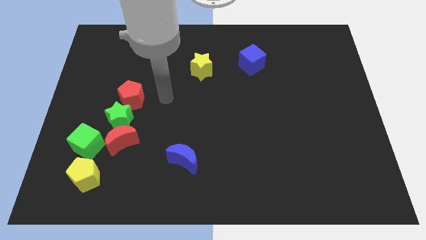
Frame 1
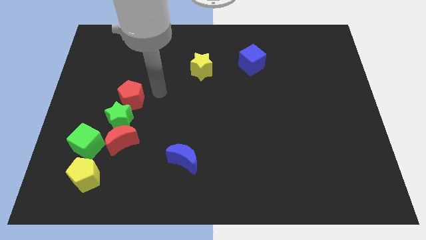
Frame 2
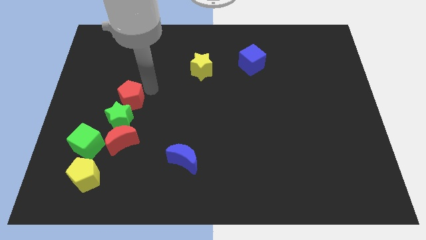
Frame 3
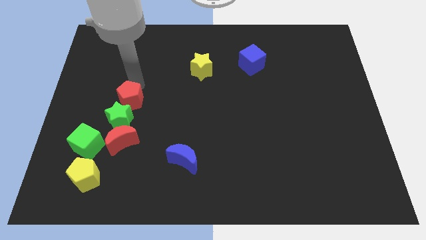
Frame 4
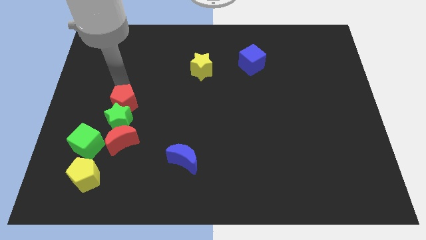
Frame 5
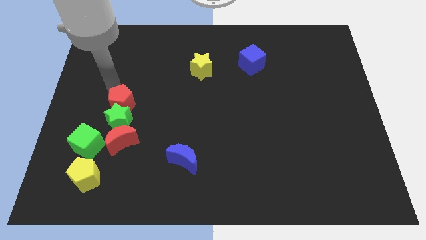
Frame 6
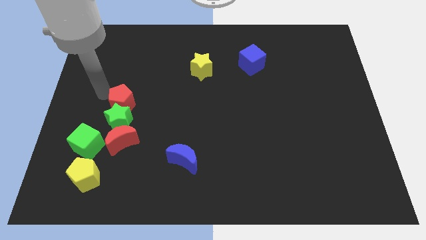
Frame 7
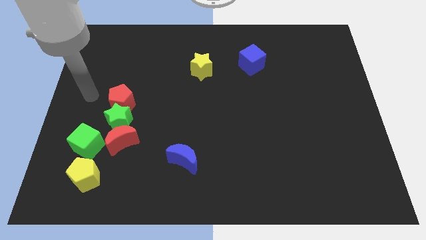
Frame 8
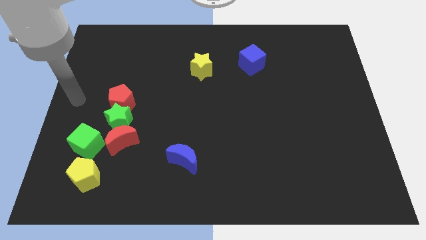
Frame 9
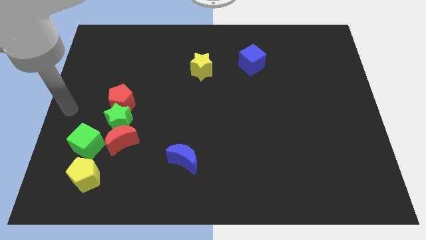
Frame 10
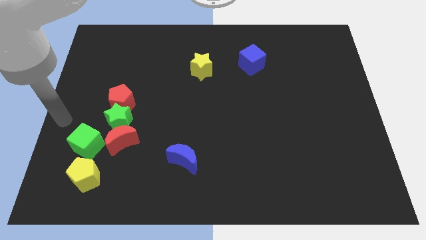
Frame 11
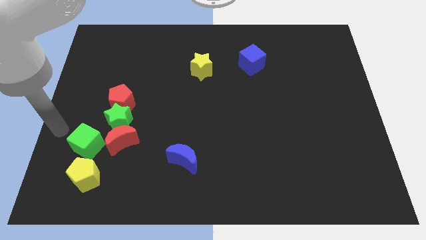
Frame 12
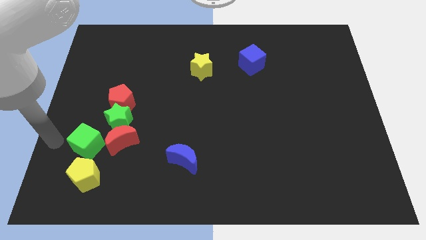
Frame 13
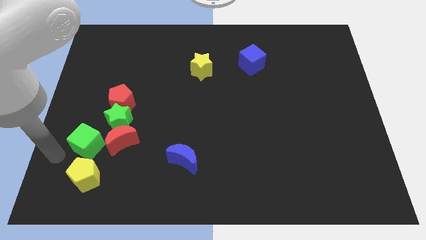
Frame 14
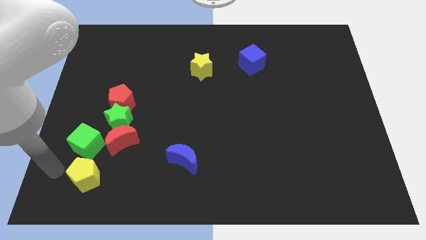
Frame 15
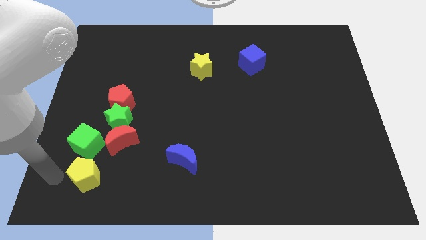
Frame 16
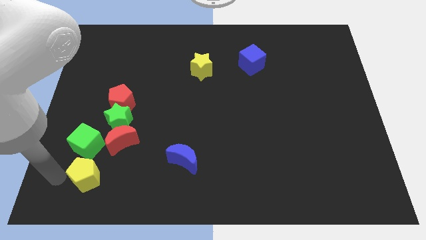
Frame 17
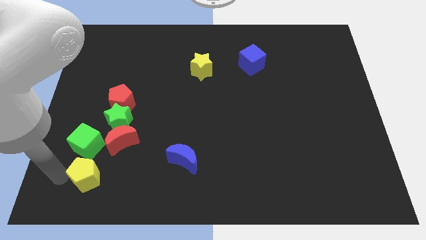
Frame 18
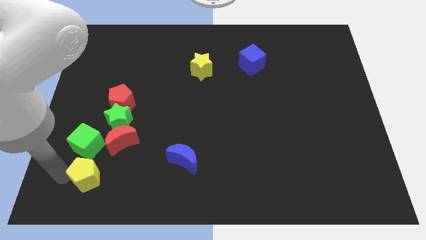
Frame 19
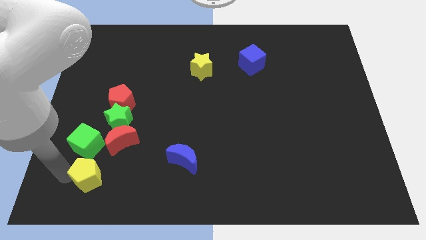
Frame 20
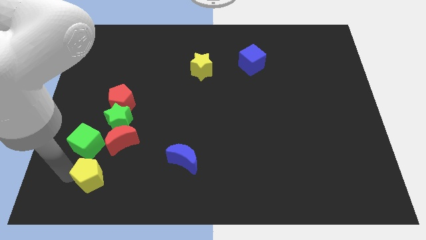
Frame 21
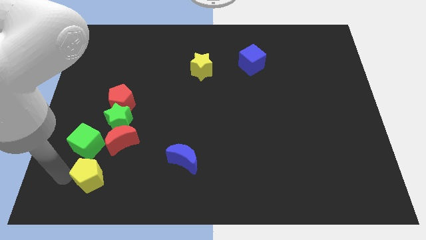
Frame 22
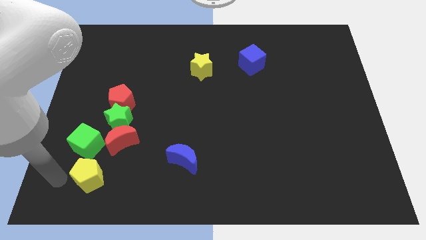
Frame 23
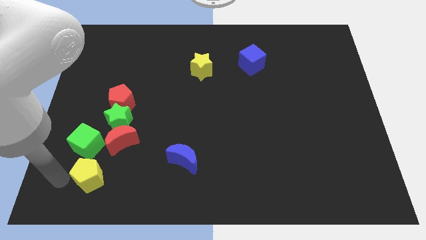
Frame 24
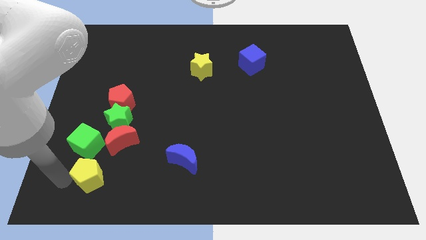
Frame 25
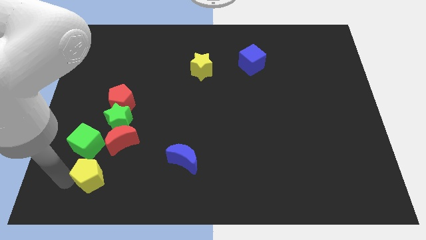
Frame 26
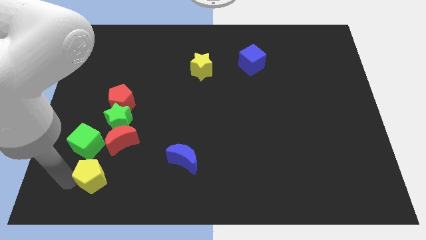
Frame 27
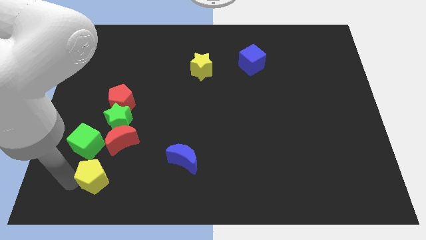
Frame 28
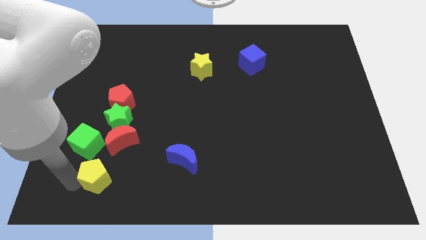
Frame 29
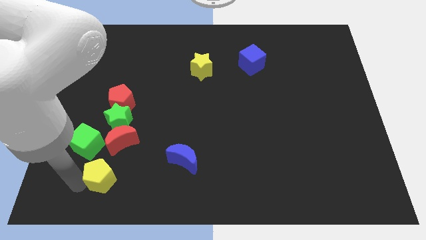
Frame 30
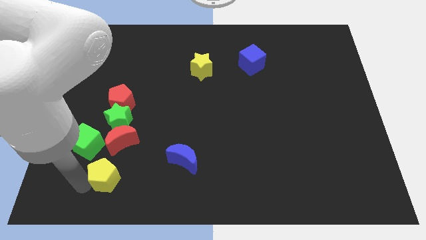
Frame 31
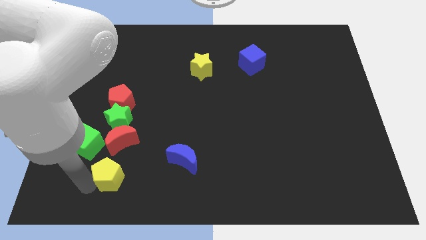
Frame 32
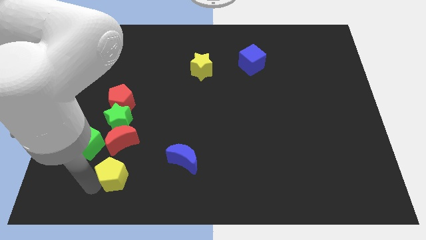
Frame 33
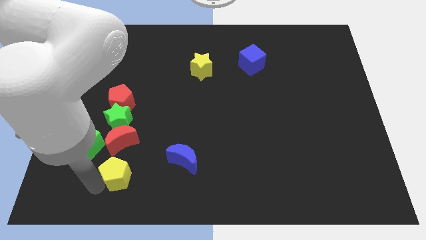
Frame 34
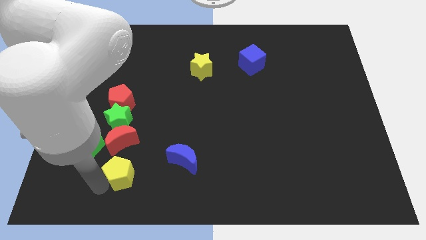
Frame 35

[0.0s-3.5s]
push the yellow pentagon right a bit

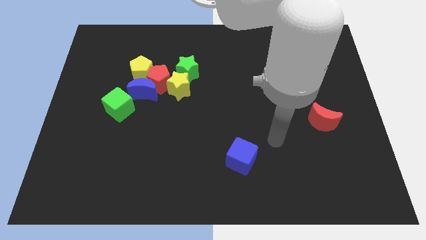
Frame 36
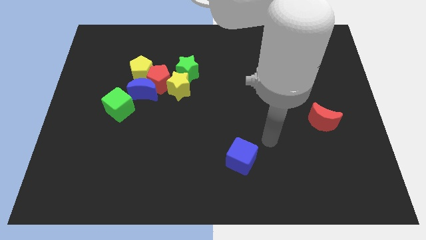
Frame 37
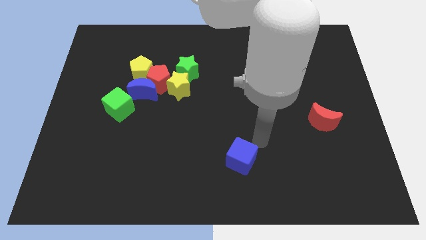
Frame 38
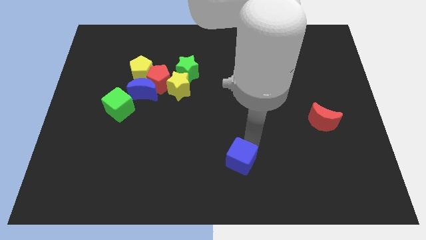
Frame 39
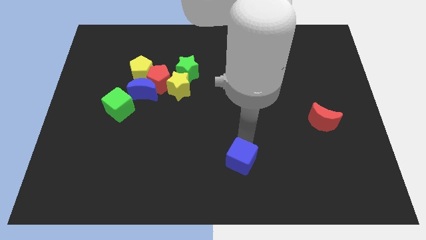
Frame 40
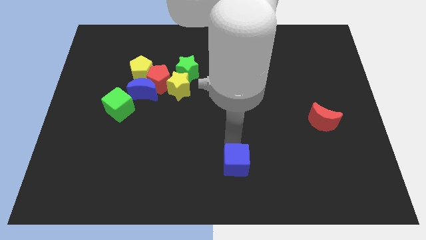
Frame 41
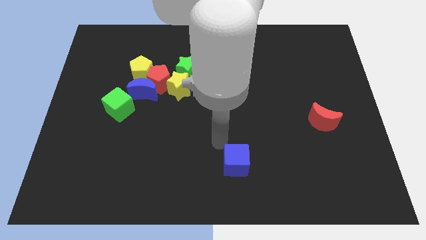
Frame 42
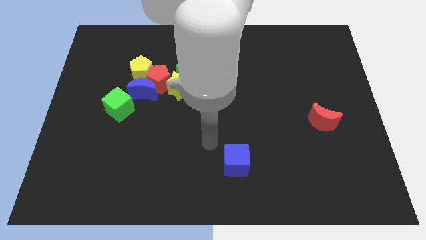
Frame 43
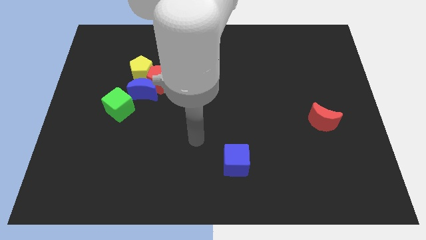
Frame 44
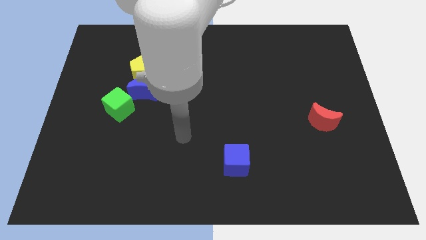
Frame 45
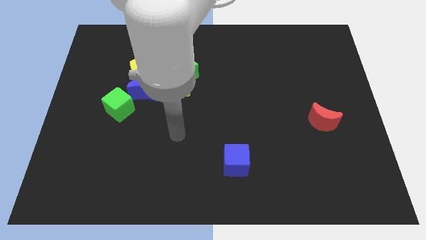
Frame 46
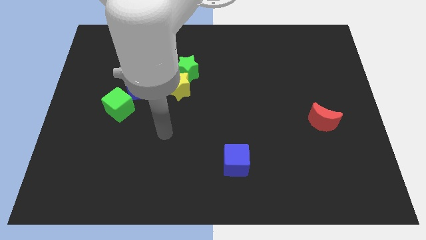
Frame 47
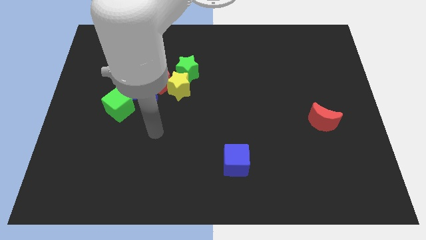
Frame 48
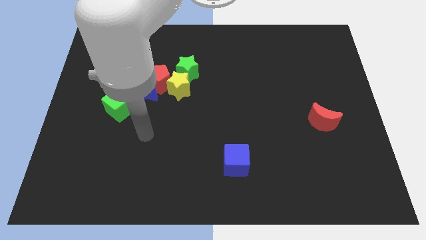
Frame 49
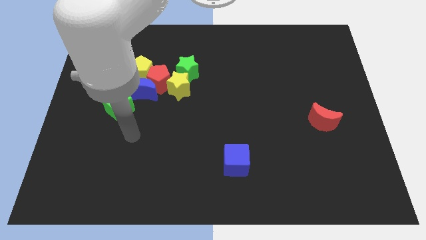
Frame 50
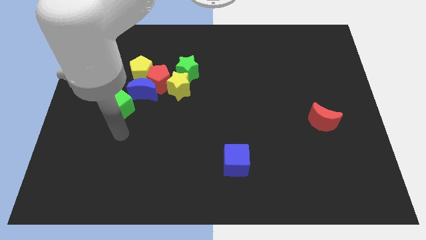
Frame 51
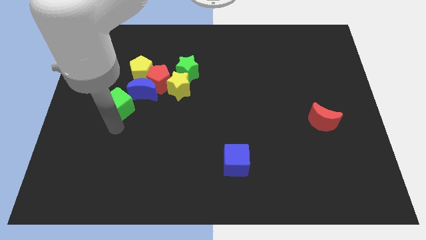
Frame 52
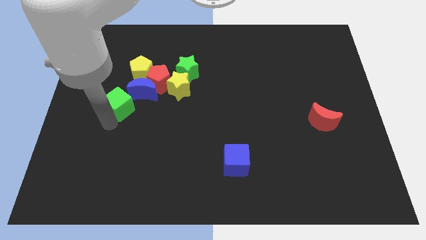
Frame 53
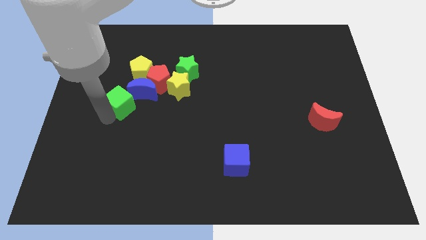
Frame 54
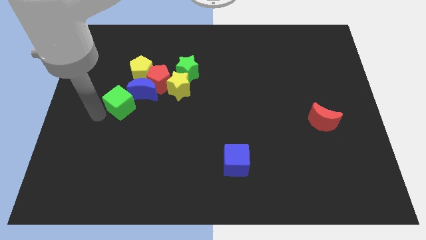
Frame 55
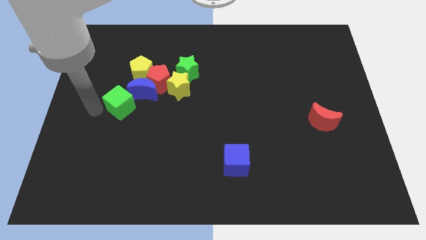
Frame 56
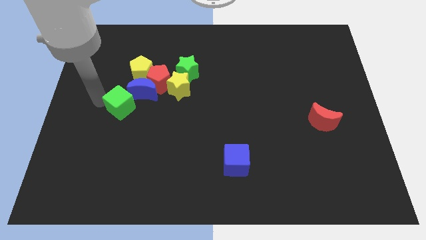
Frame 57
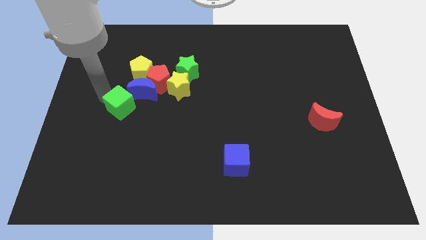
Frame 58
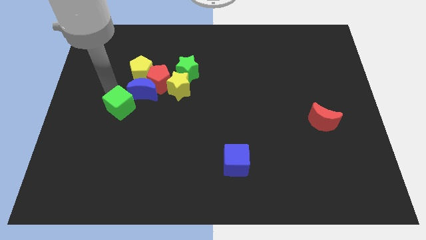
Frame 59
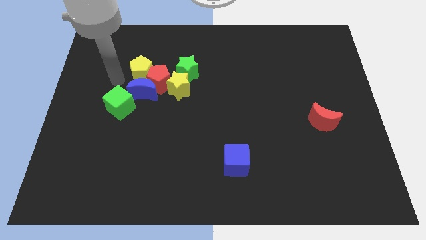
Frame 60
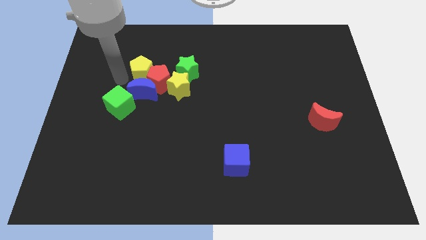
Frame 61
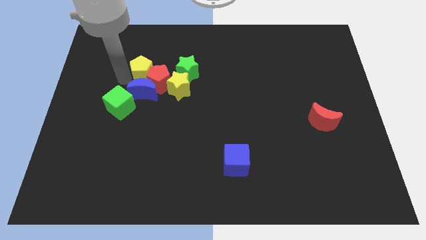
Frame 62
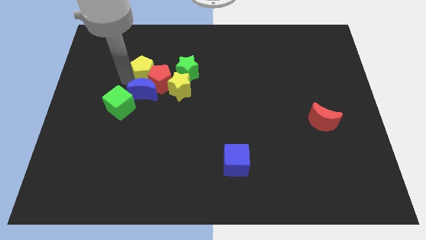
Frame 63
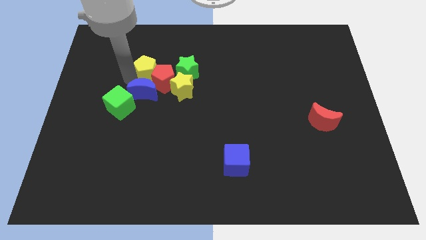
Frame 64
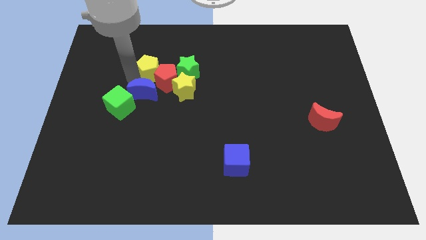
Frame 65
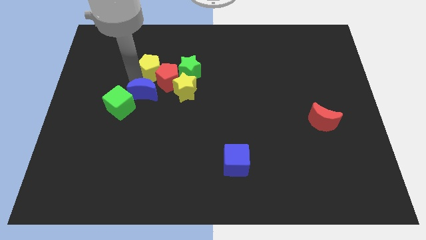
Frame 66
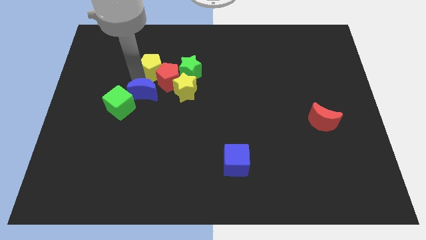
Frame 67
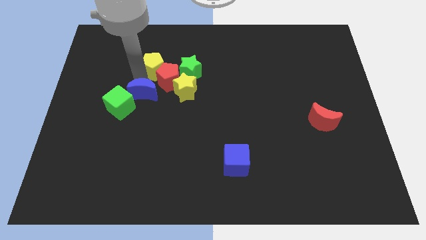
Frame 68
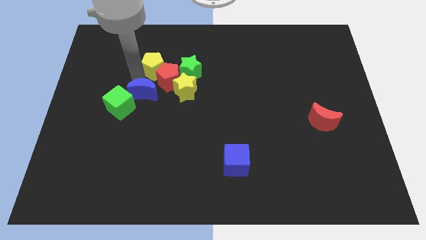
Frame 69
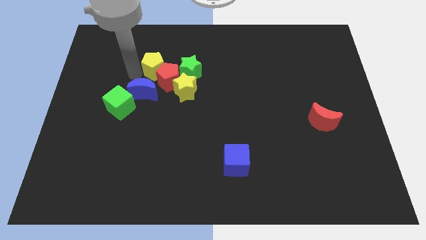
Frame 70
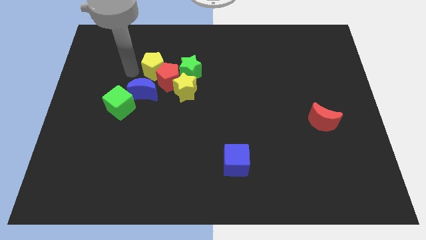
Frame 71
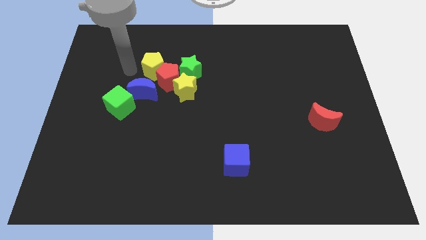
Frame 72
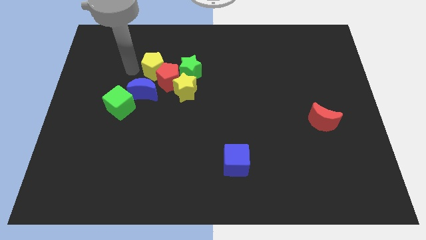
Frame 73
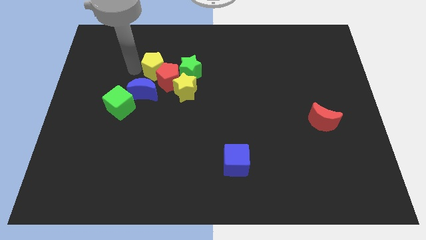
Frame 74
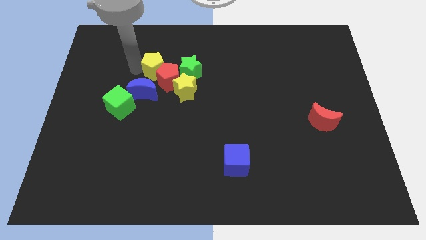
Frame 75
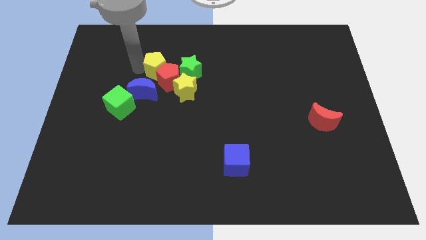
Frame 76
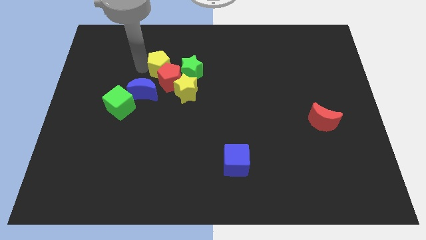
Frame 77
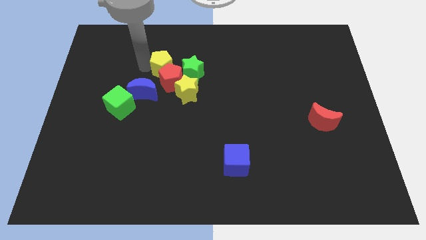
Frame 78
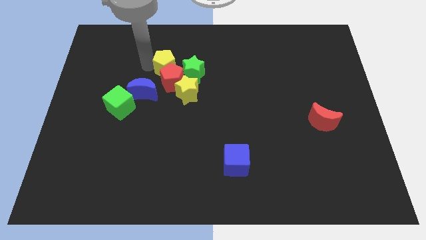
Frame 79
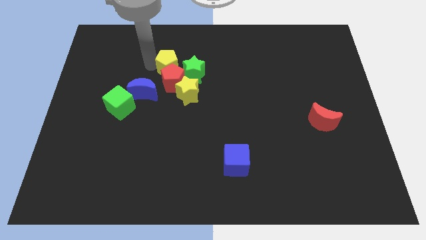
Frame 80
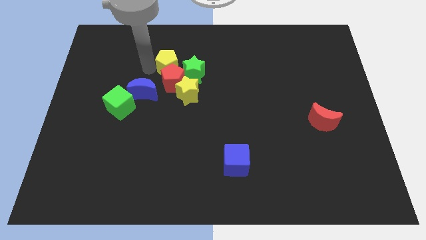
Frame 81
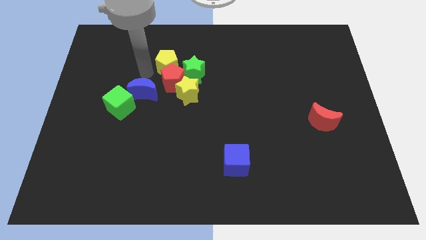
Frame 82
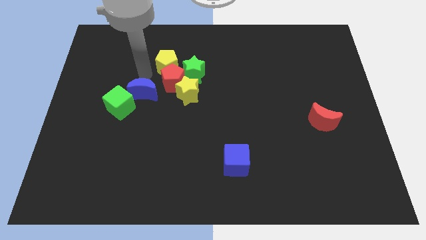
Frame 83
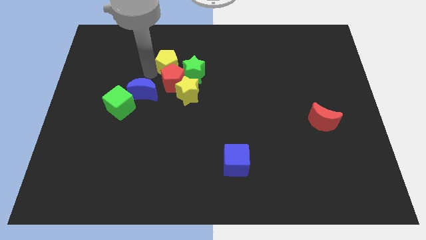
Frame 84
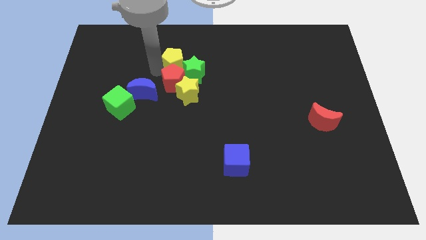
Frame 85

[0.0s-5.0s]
slightly move the yellow pentagon right
